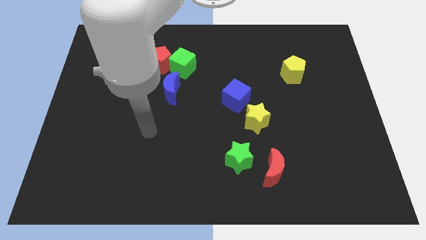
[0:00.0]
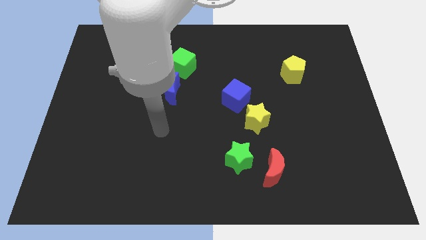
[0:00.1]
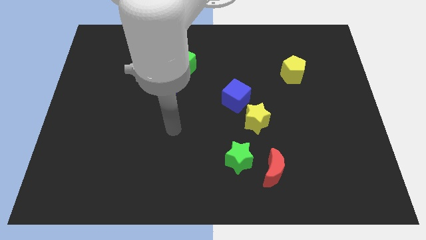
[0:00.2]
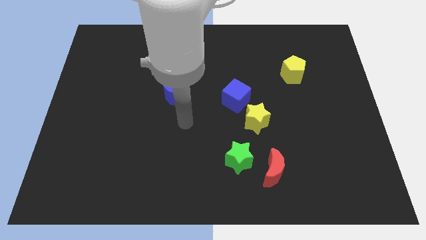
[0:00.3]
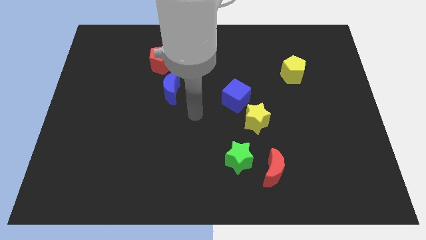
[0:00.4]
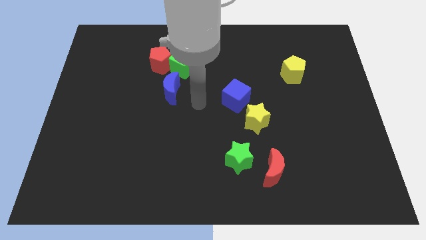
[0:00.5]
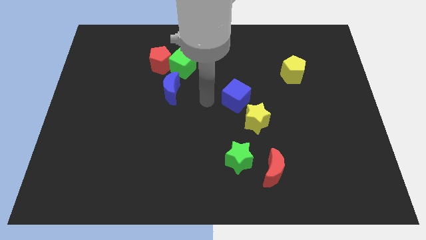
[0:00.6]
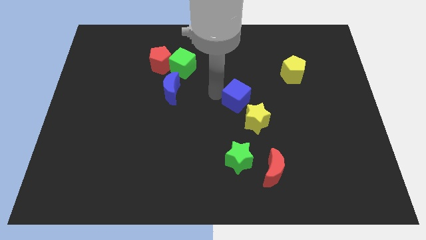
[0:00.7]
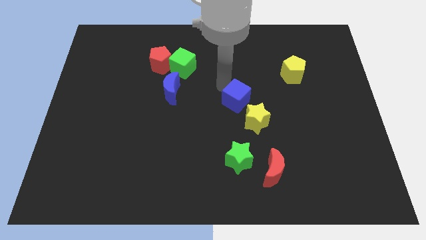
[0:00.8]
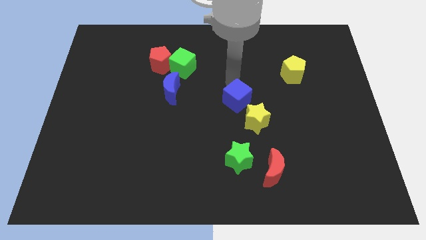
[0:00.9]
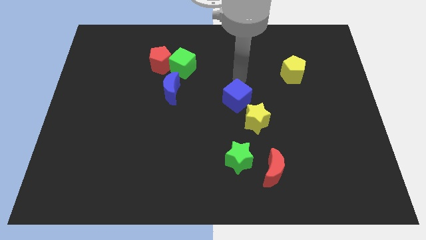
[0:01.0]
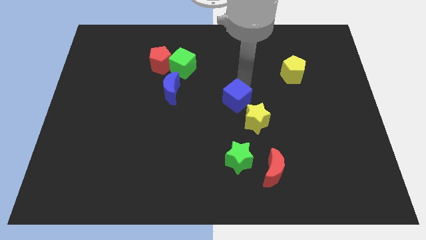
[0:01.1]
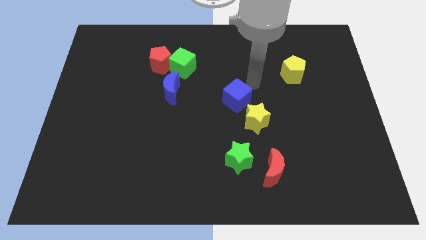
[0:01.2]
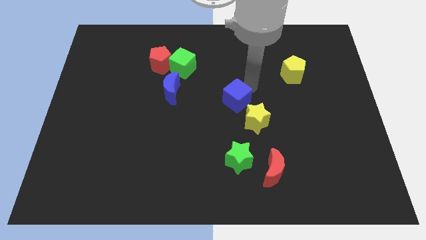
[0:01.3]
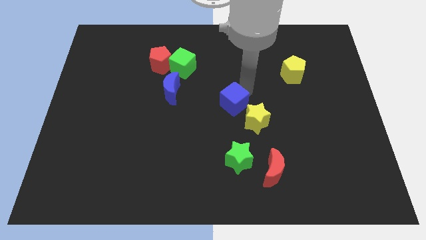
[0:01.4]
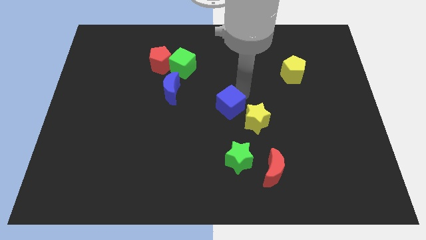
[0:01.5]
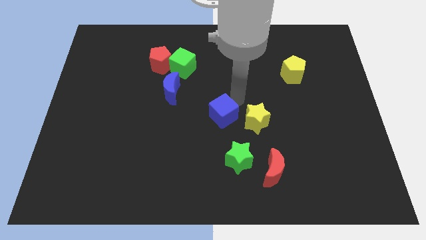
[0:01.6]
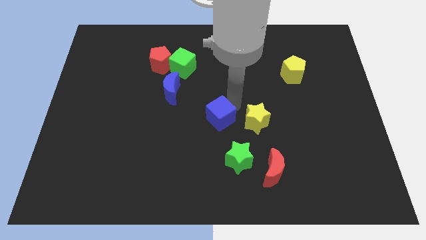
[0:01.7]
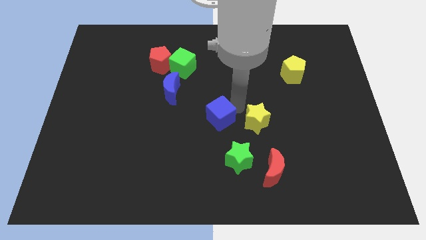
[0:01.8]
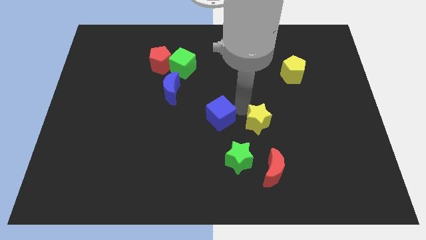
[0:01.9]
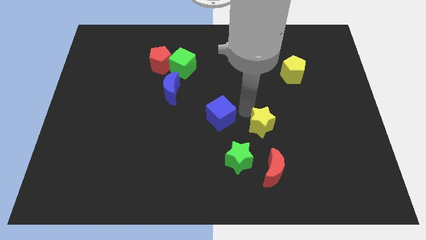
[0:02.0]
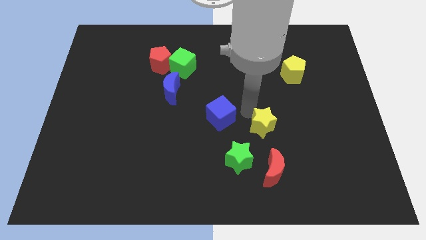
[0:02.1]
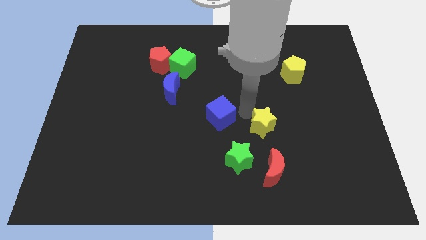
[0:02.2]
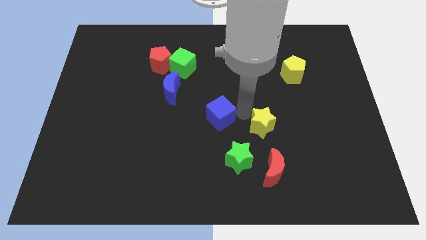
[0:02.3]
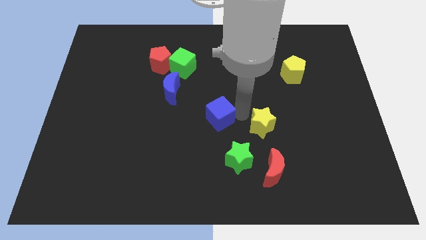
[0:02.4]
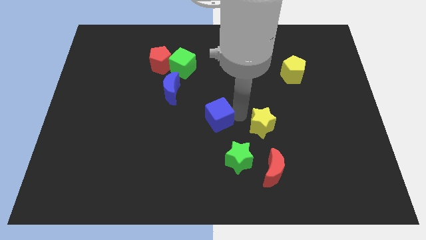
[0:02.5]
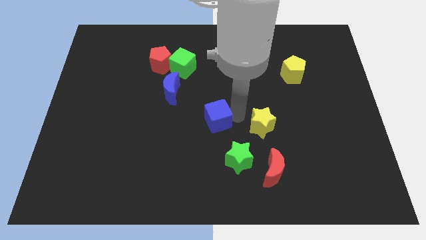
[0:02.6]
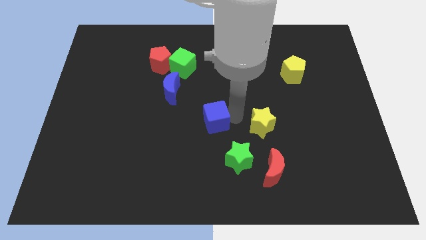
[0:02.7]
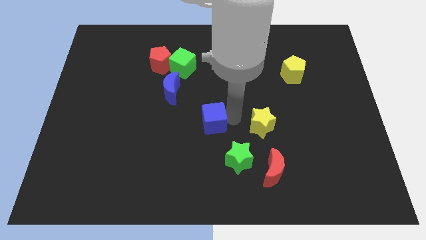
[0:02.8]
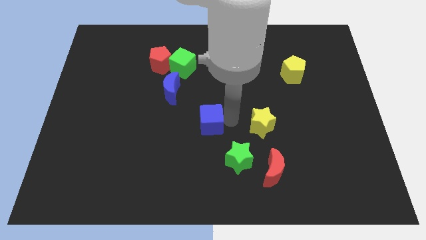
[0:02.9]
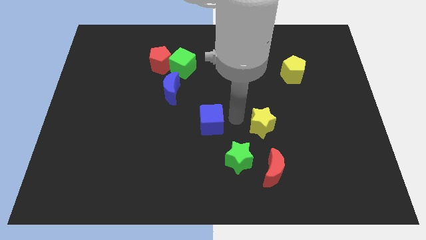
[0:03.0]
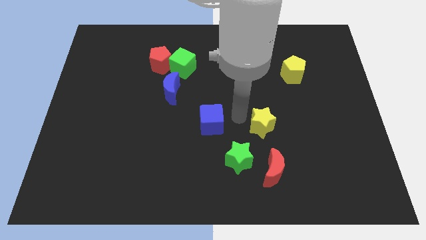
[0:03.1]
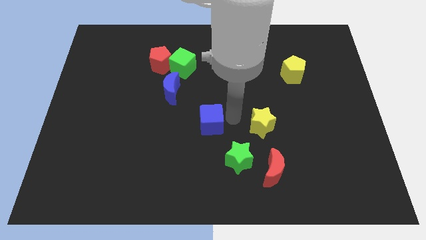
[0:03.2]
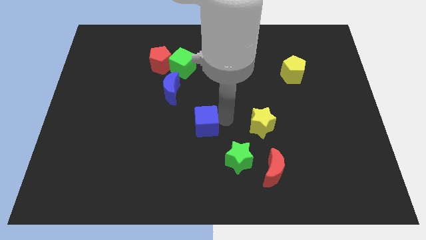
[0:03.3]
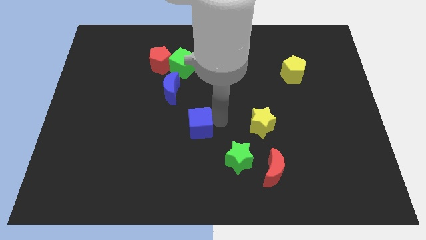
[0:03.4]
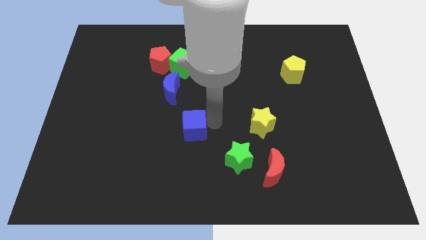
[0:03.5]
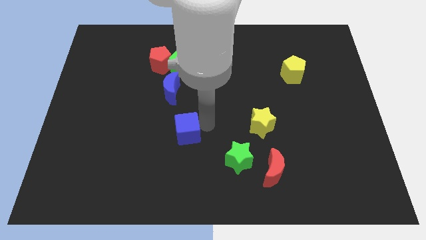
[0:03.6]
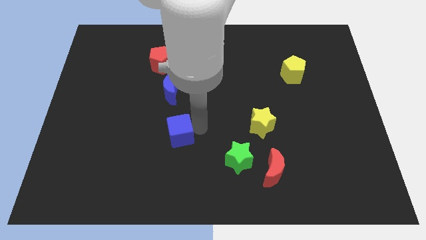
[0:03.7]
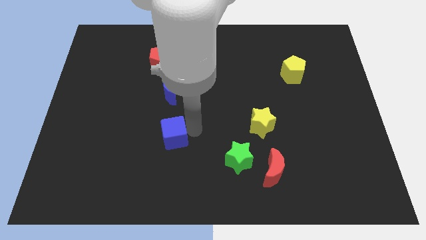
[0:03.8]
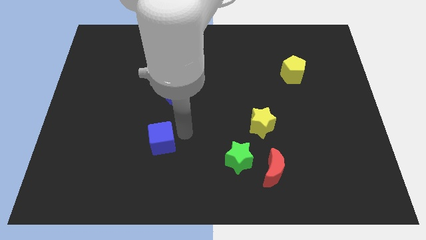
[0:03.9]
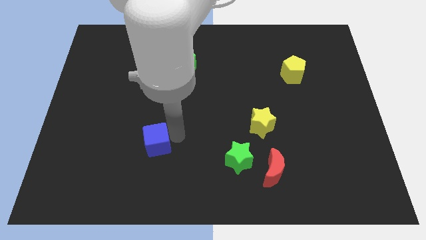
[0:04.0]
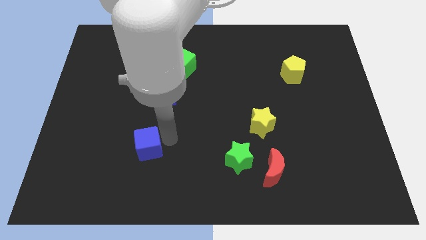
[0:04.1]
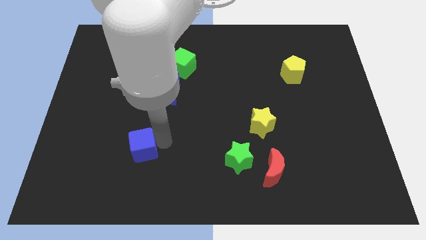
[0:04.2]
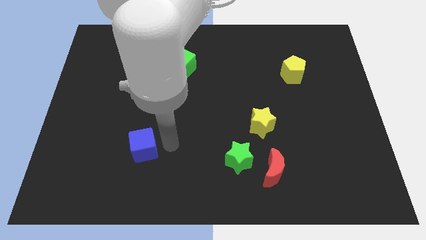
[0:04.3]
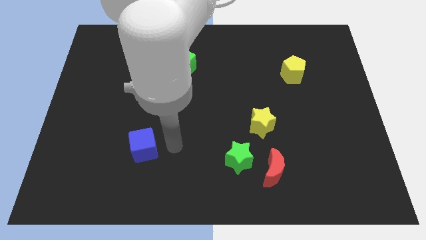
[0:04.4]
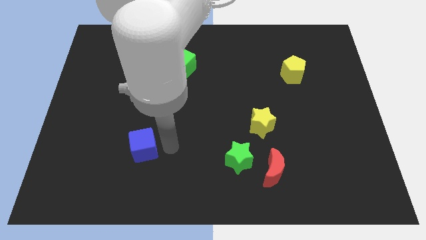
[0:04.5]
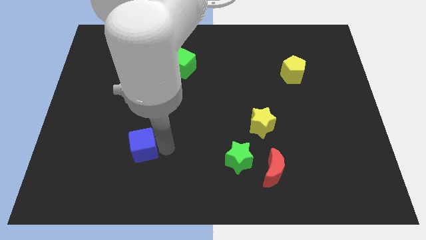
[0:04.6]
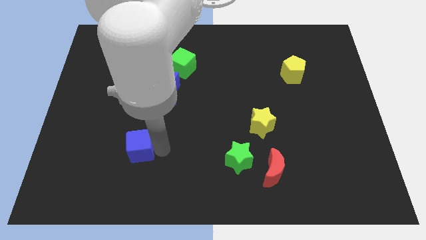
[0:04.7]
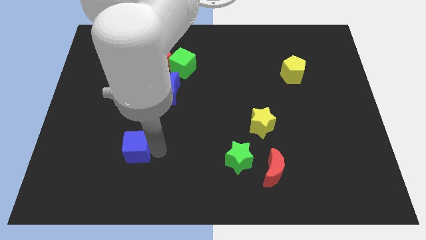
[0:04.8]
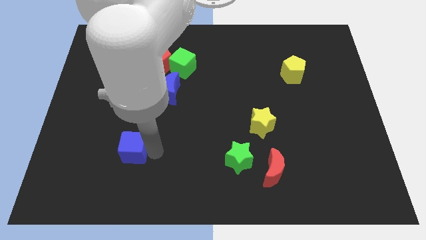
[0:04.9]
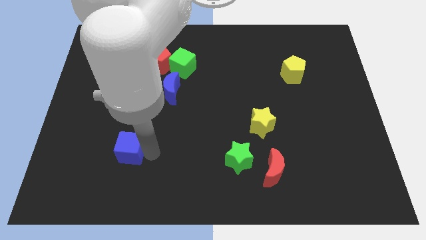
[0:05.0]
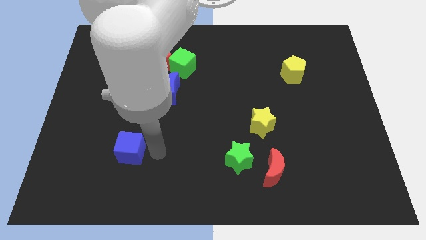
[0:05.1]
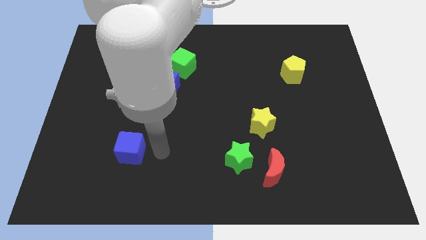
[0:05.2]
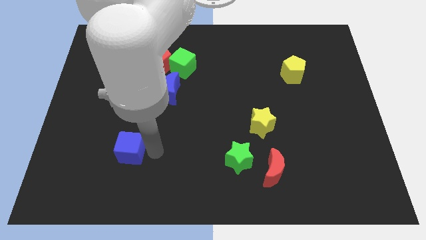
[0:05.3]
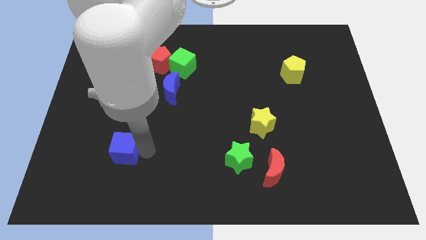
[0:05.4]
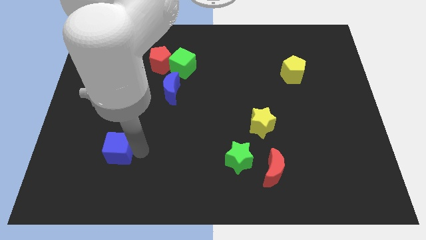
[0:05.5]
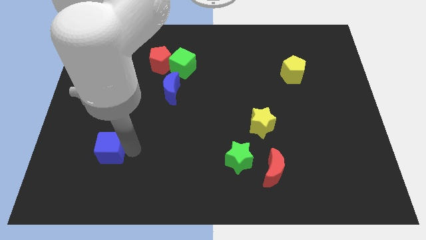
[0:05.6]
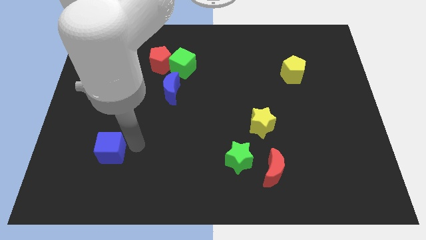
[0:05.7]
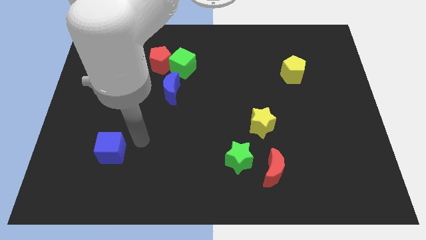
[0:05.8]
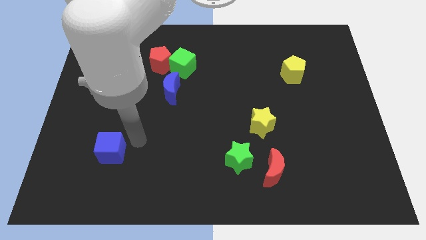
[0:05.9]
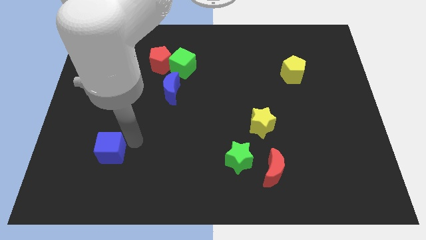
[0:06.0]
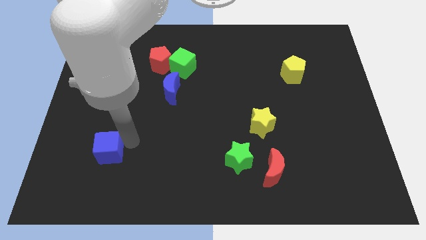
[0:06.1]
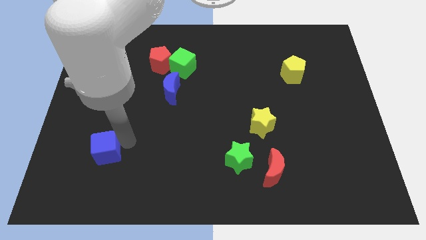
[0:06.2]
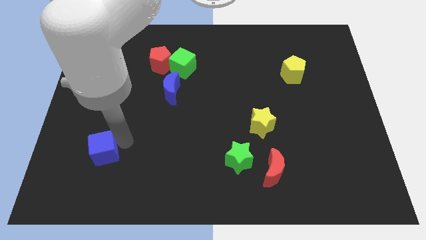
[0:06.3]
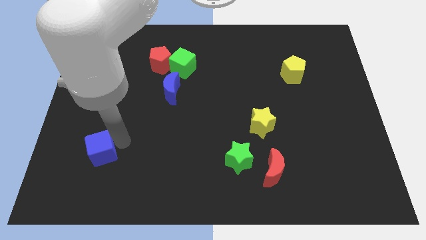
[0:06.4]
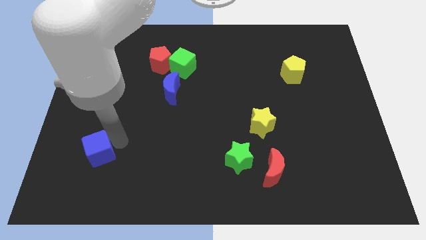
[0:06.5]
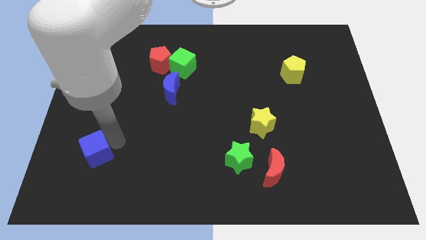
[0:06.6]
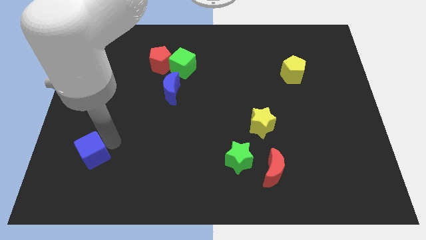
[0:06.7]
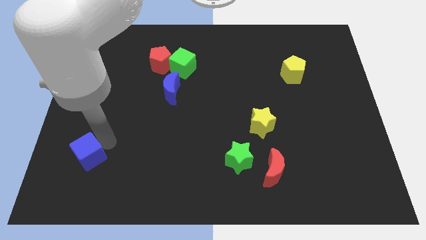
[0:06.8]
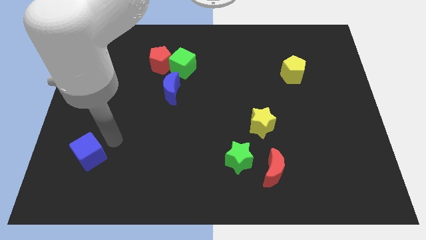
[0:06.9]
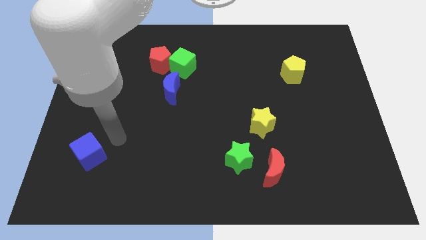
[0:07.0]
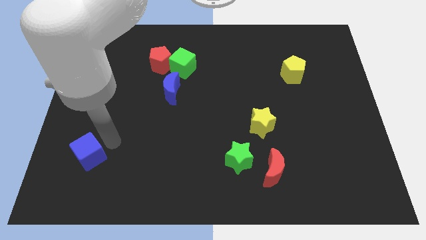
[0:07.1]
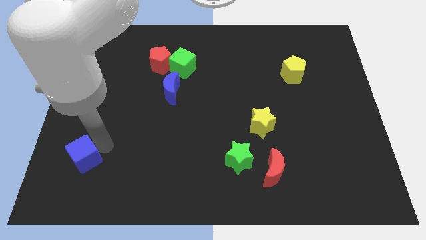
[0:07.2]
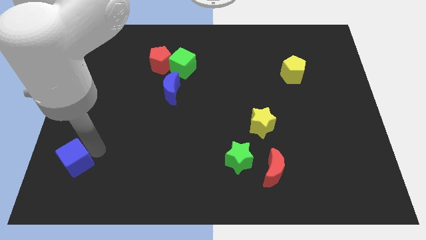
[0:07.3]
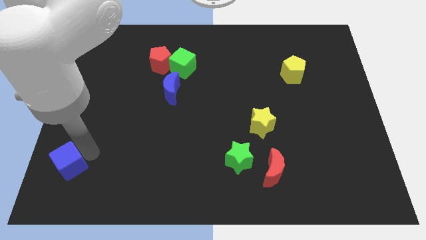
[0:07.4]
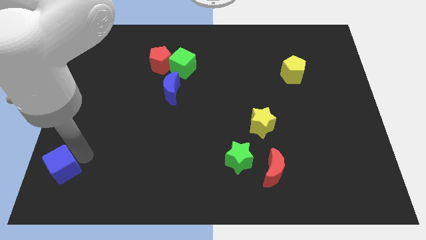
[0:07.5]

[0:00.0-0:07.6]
slide the blue cube to the bottom left corner
